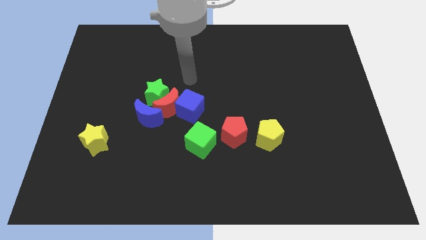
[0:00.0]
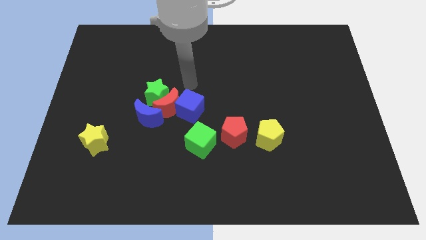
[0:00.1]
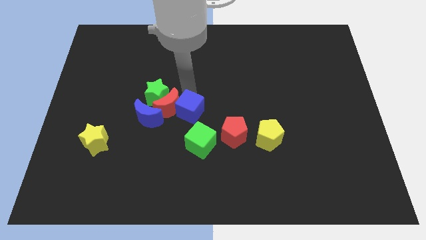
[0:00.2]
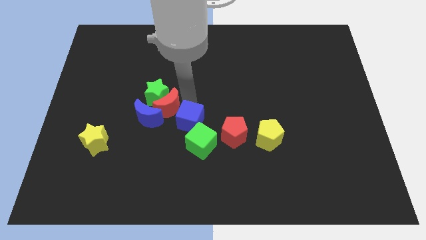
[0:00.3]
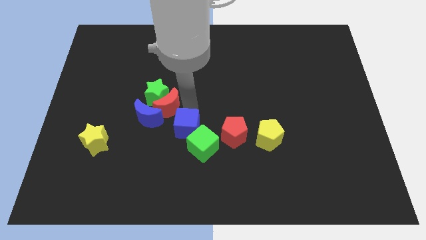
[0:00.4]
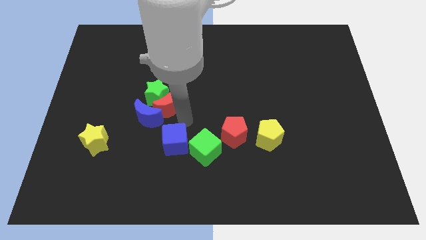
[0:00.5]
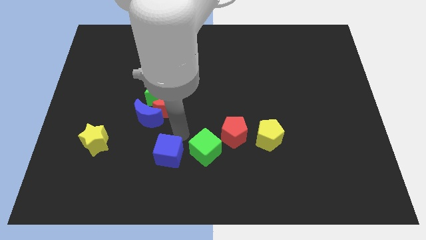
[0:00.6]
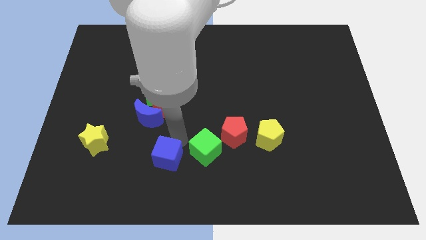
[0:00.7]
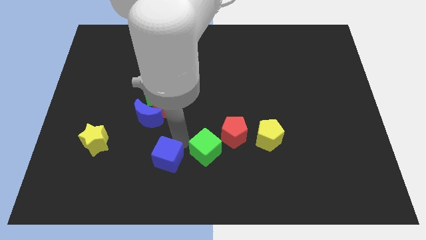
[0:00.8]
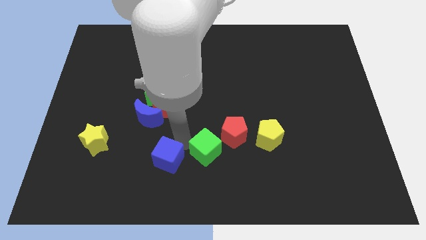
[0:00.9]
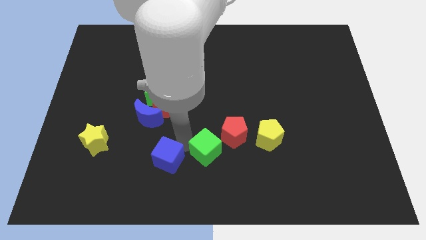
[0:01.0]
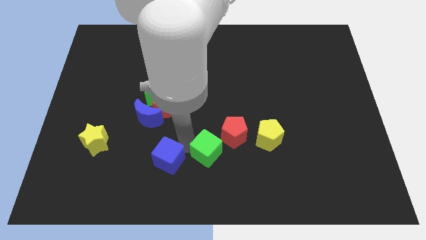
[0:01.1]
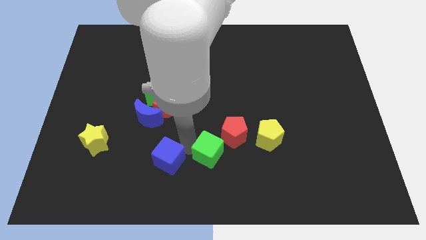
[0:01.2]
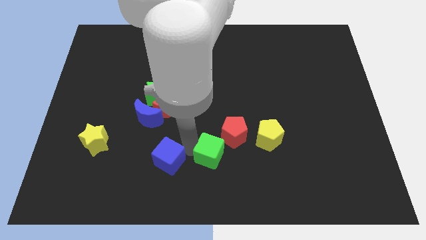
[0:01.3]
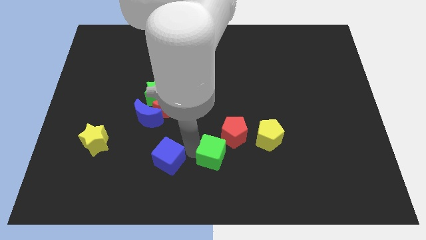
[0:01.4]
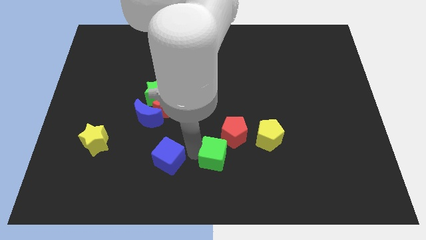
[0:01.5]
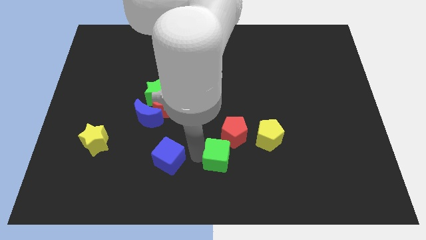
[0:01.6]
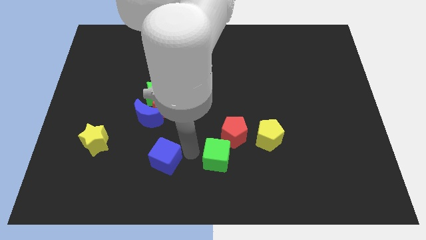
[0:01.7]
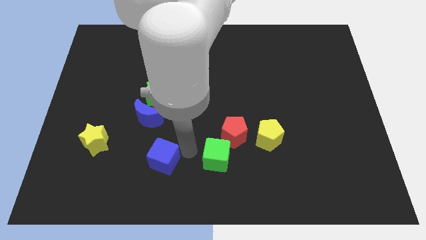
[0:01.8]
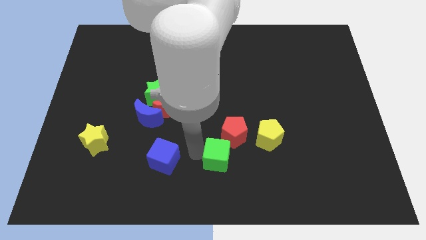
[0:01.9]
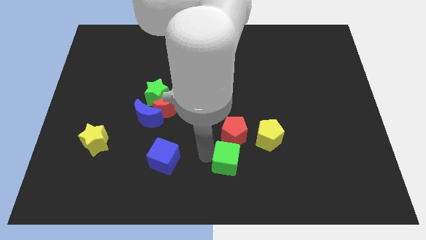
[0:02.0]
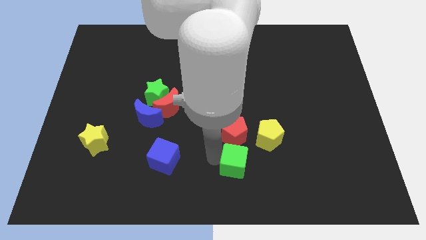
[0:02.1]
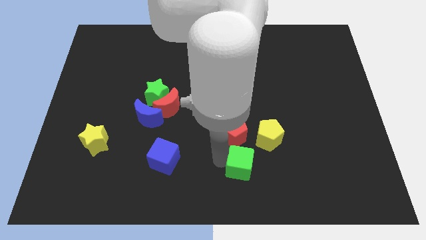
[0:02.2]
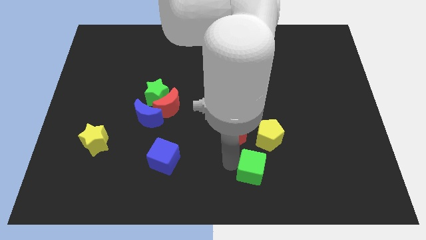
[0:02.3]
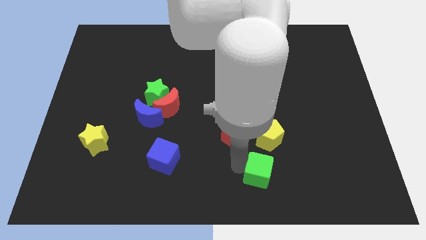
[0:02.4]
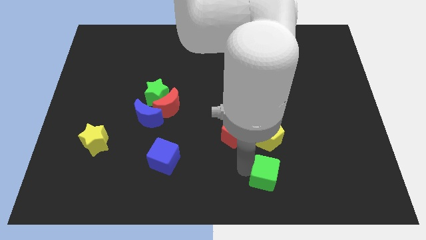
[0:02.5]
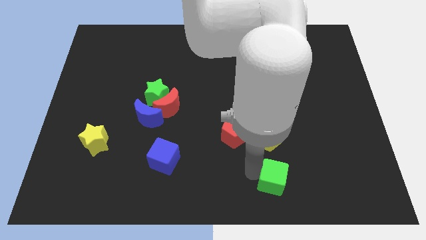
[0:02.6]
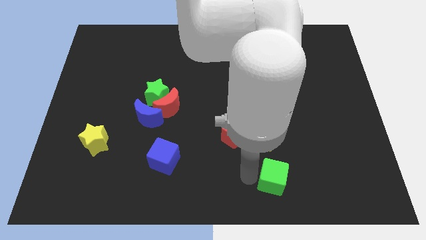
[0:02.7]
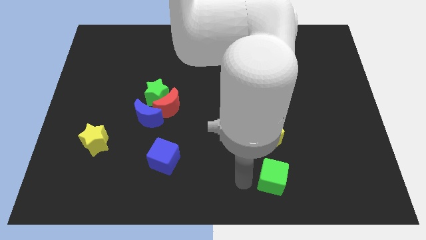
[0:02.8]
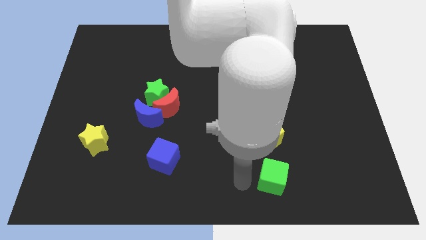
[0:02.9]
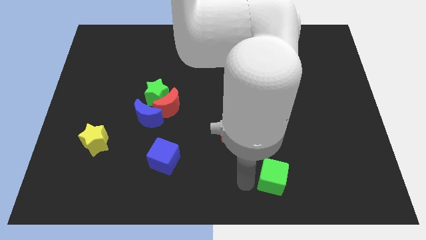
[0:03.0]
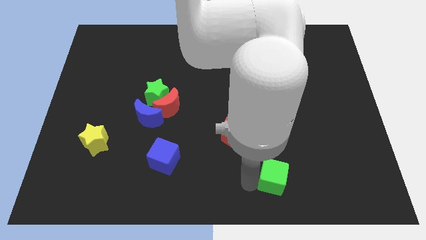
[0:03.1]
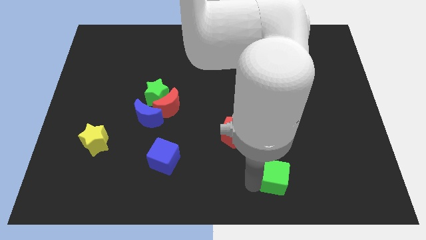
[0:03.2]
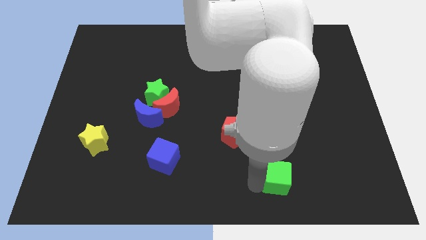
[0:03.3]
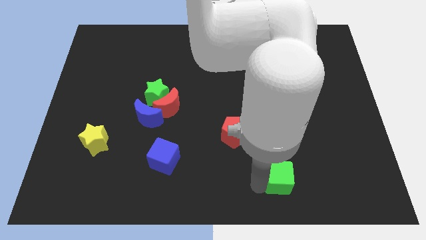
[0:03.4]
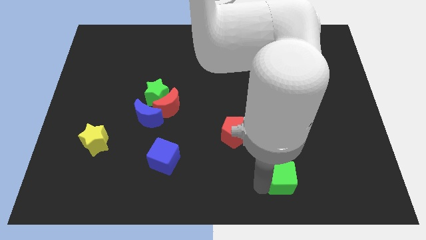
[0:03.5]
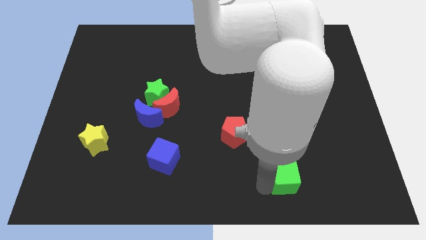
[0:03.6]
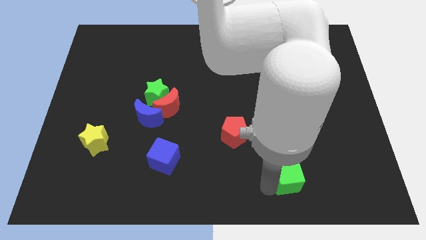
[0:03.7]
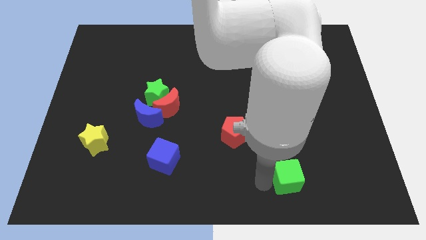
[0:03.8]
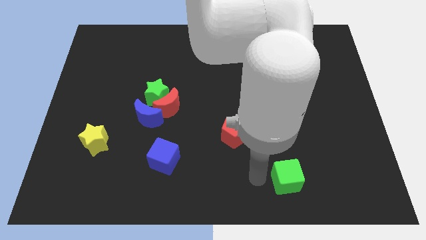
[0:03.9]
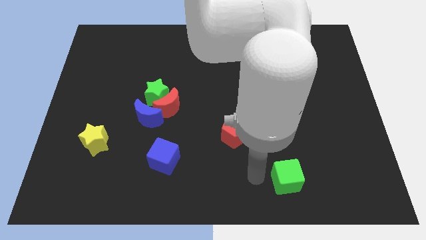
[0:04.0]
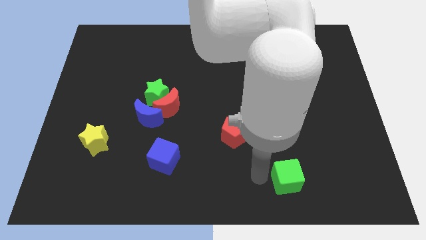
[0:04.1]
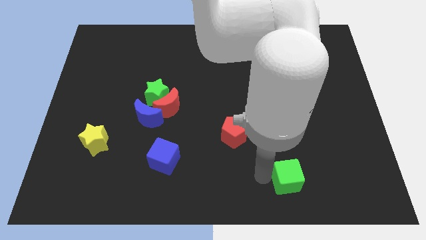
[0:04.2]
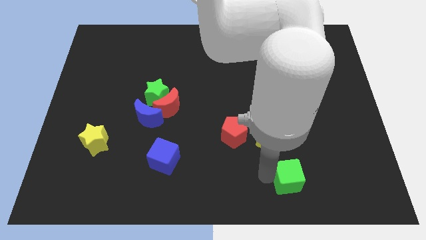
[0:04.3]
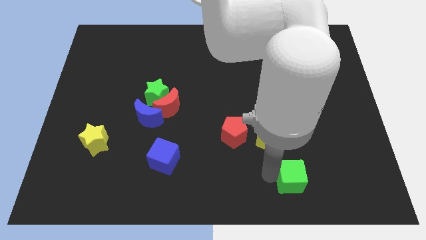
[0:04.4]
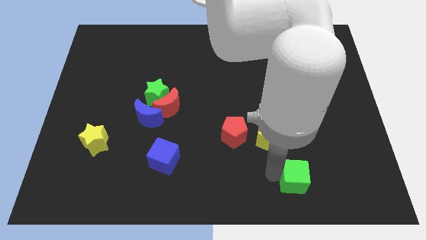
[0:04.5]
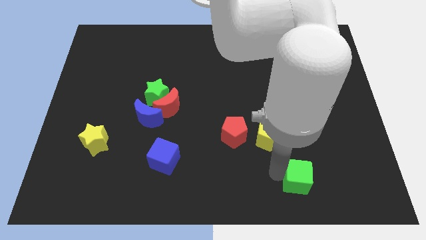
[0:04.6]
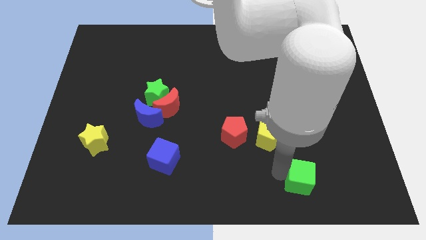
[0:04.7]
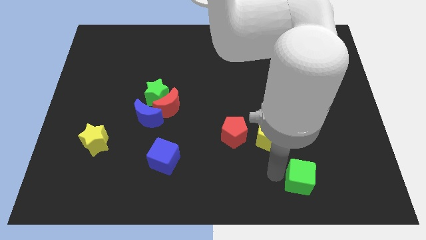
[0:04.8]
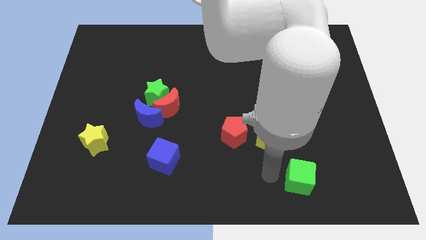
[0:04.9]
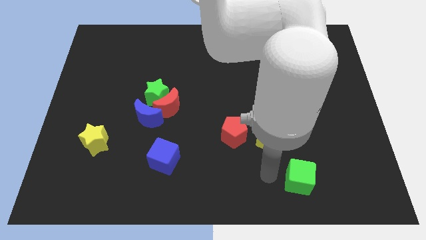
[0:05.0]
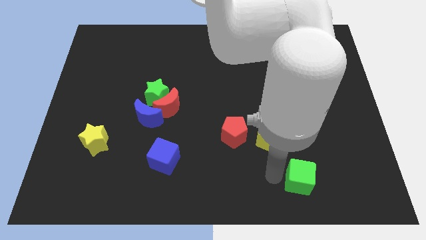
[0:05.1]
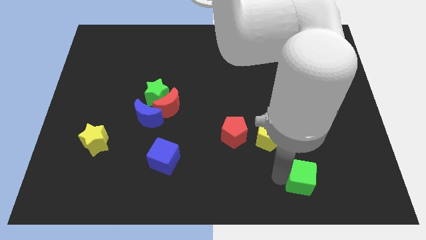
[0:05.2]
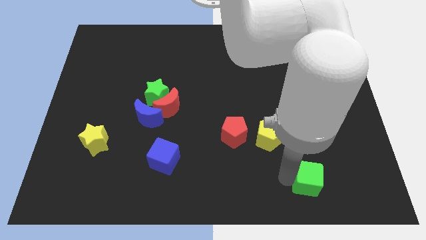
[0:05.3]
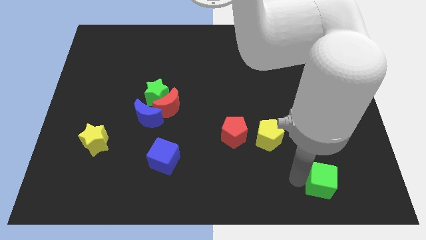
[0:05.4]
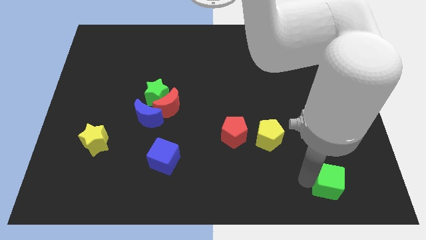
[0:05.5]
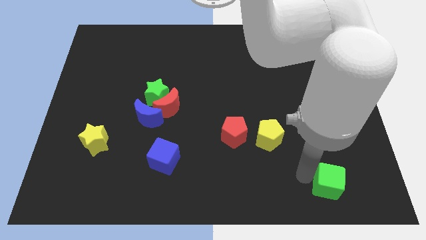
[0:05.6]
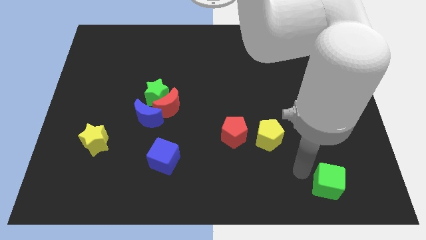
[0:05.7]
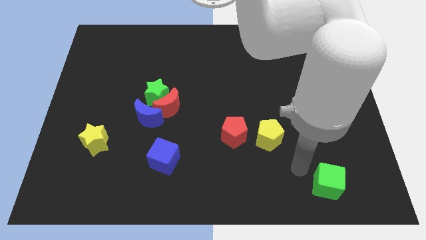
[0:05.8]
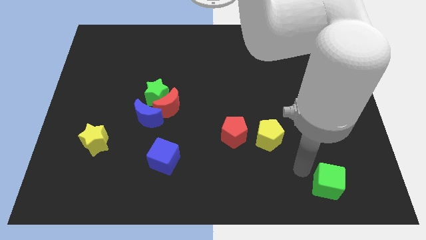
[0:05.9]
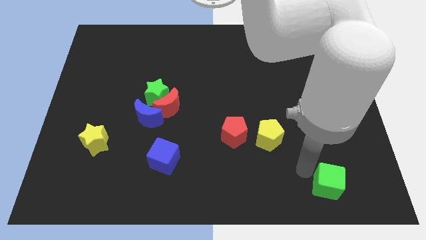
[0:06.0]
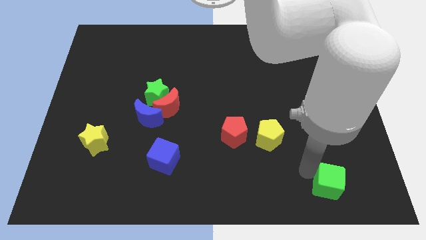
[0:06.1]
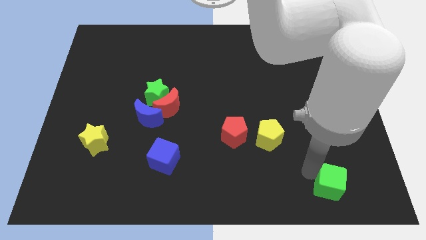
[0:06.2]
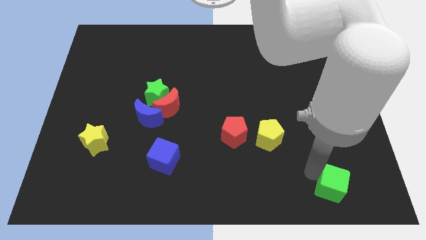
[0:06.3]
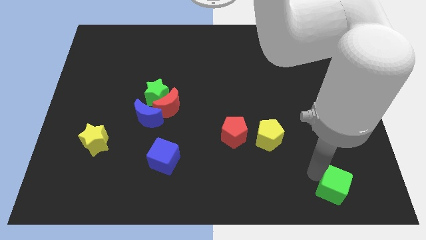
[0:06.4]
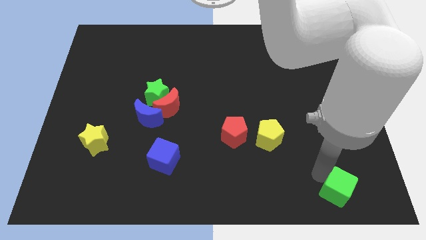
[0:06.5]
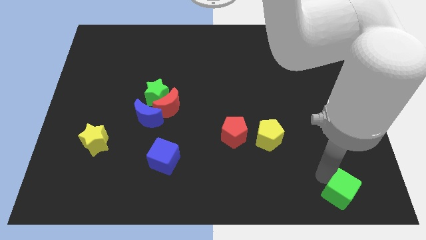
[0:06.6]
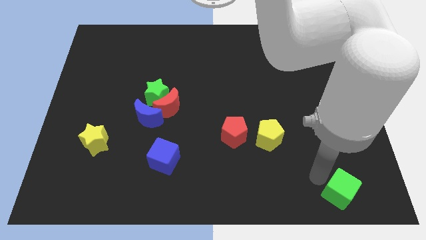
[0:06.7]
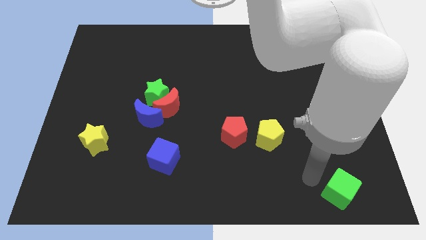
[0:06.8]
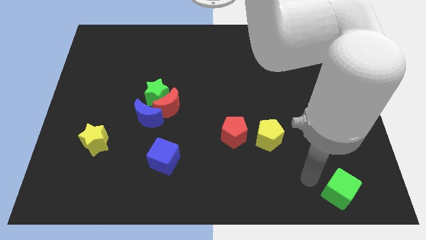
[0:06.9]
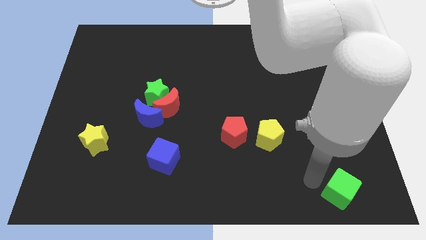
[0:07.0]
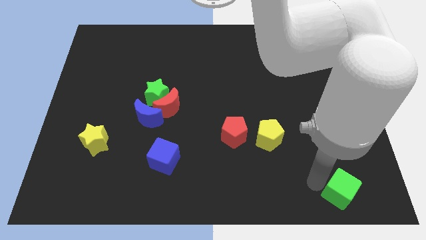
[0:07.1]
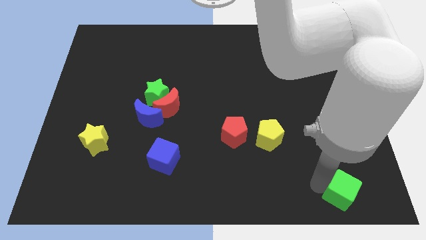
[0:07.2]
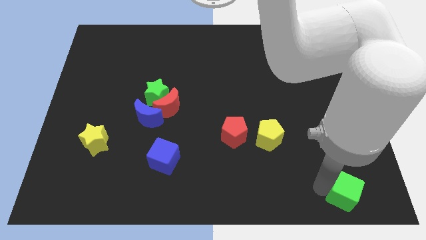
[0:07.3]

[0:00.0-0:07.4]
push the green cube to the lower right corner
